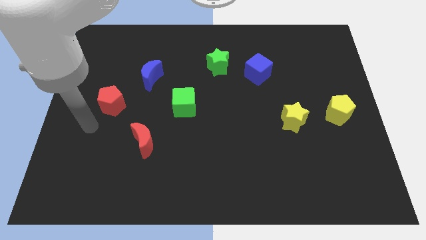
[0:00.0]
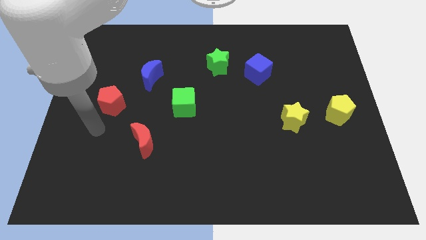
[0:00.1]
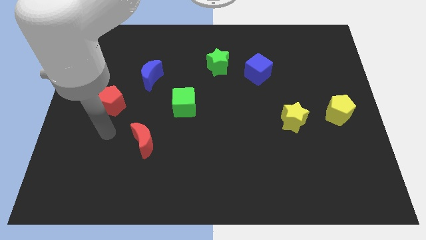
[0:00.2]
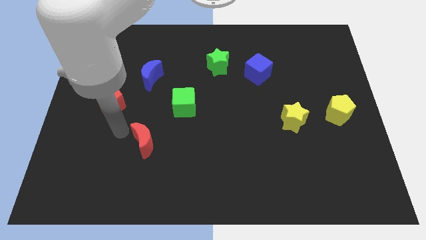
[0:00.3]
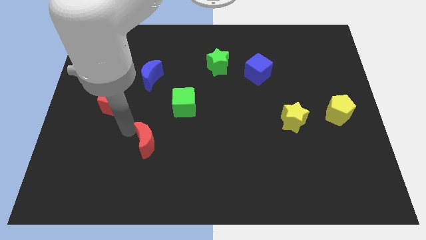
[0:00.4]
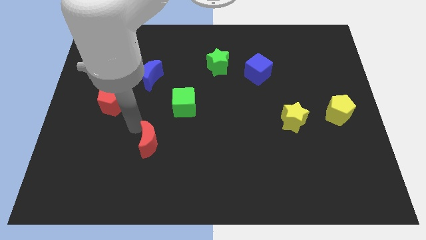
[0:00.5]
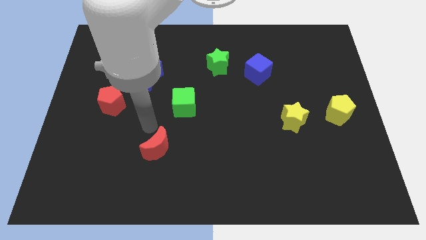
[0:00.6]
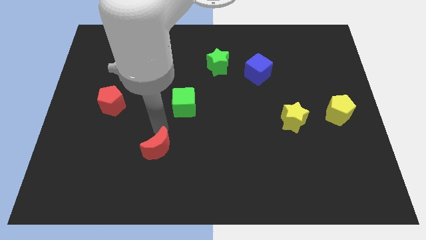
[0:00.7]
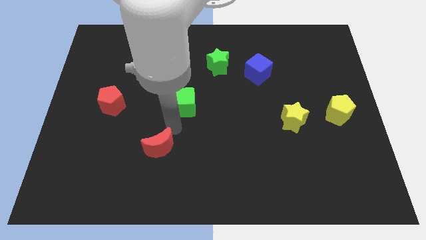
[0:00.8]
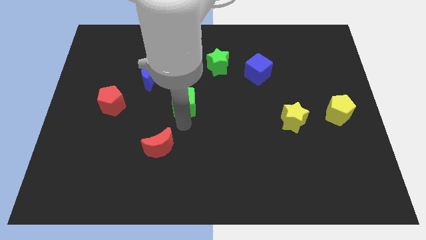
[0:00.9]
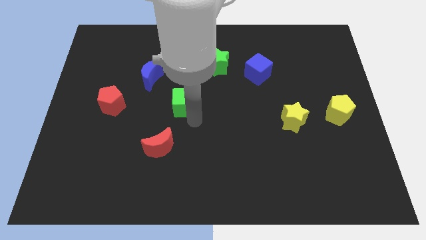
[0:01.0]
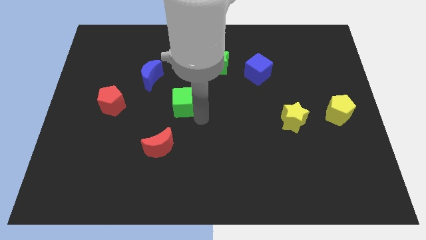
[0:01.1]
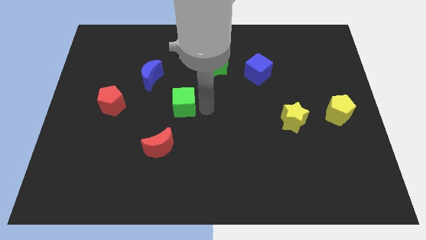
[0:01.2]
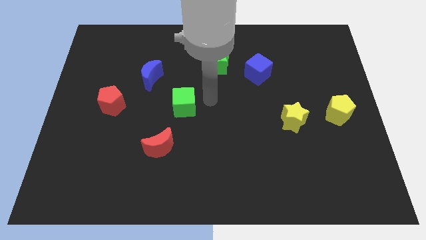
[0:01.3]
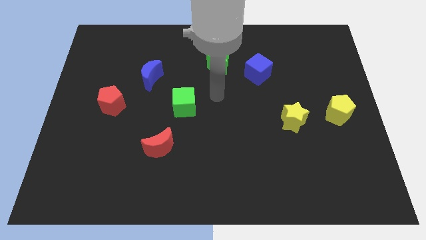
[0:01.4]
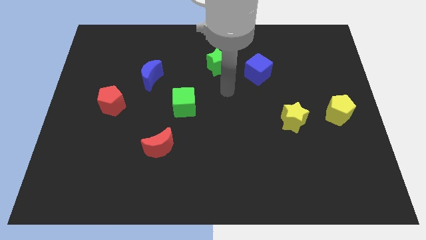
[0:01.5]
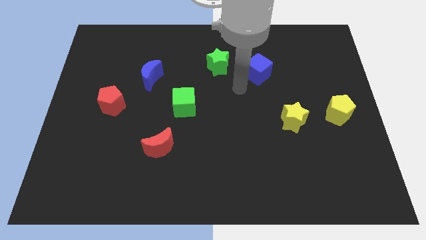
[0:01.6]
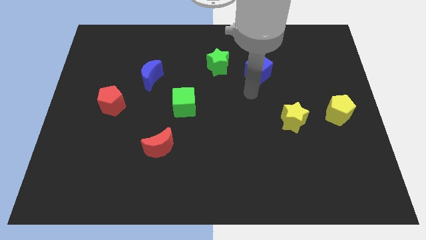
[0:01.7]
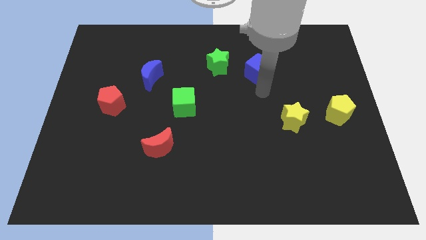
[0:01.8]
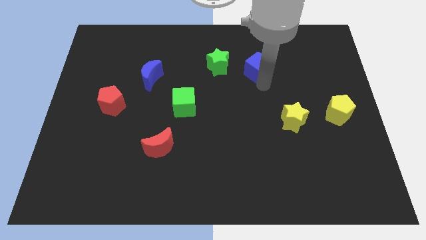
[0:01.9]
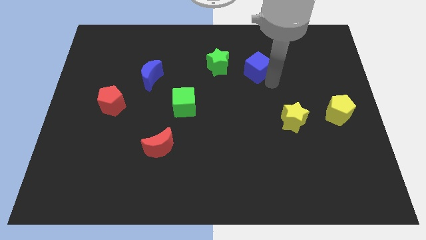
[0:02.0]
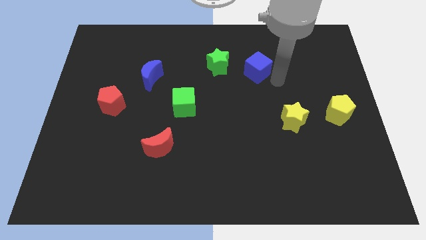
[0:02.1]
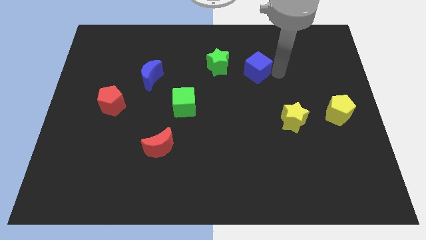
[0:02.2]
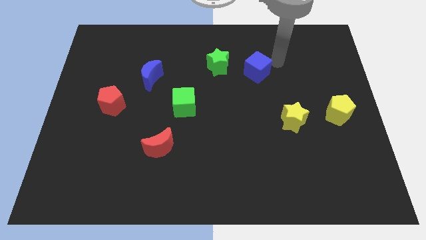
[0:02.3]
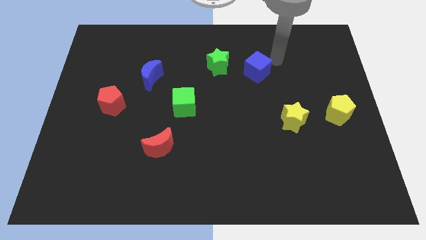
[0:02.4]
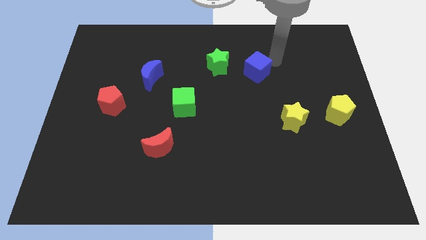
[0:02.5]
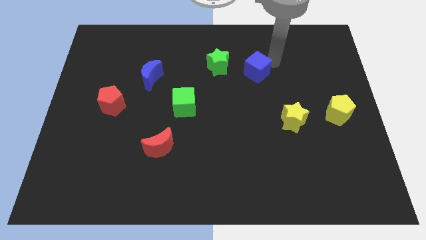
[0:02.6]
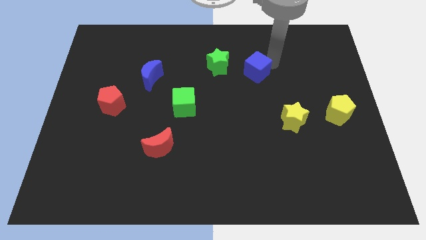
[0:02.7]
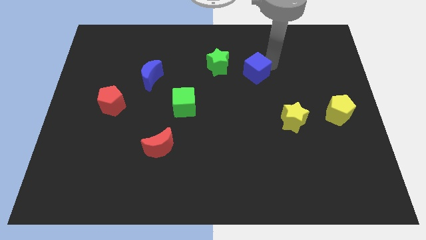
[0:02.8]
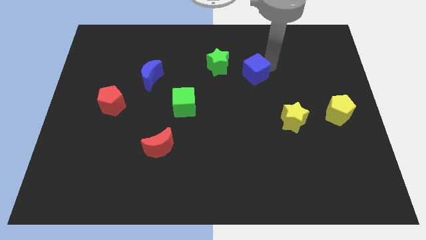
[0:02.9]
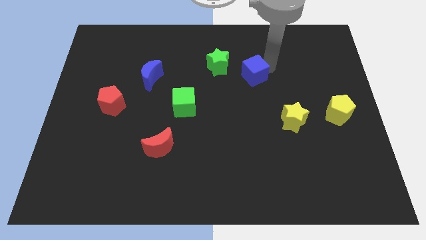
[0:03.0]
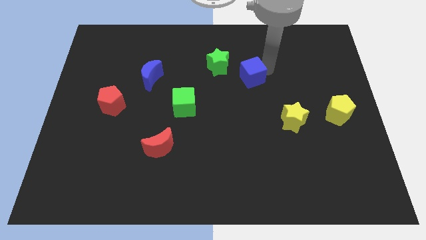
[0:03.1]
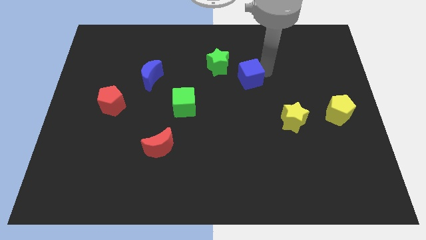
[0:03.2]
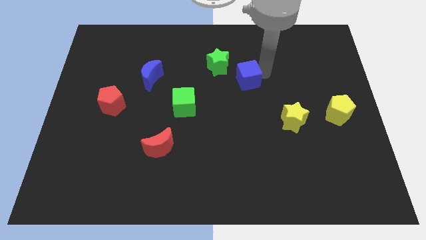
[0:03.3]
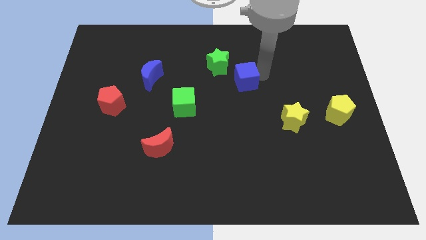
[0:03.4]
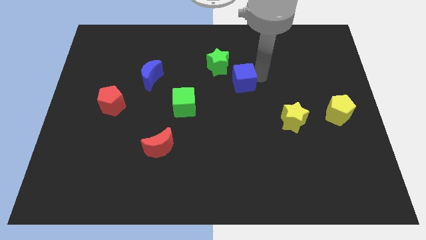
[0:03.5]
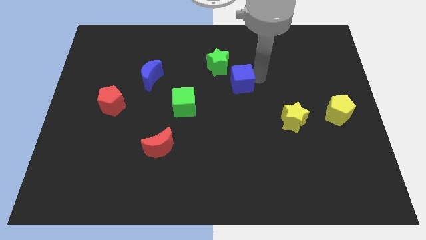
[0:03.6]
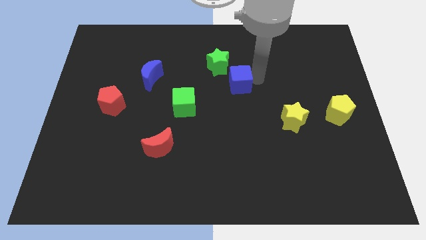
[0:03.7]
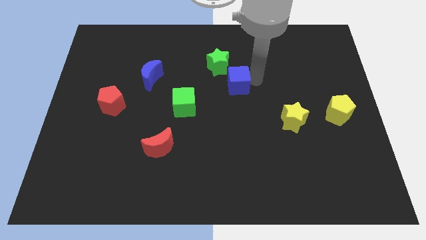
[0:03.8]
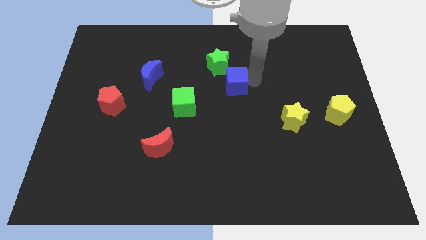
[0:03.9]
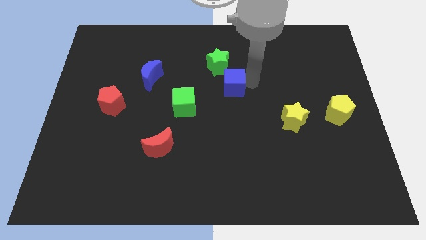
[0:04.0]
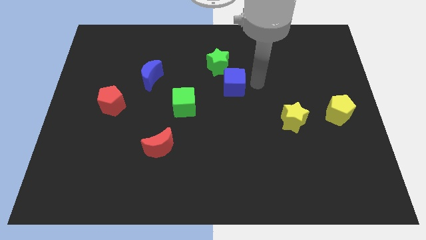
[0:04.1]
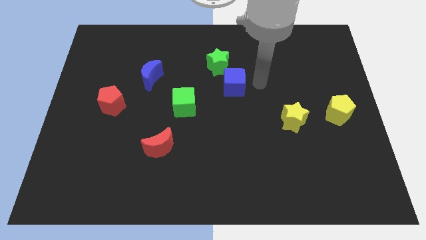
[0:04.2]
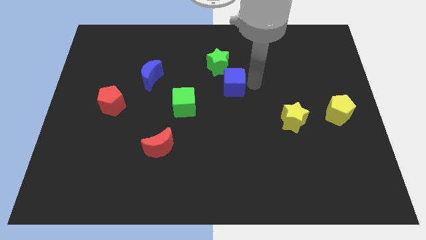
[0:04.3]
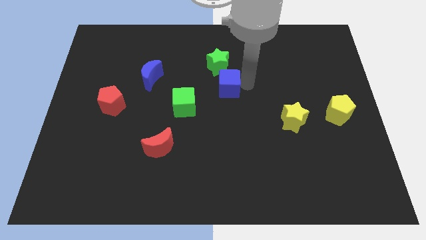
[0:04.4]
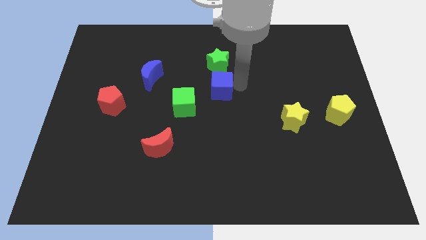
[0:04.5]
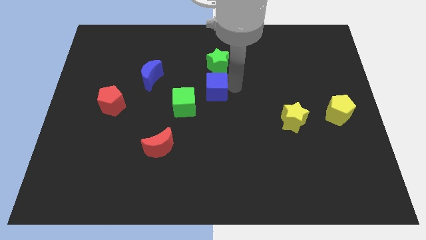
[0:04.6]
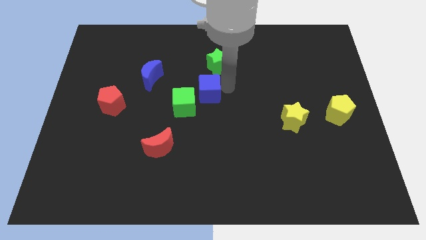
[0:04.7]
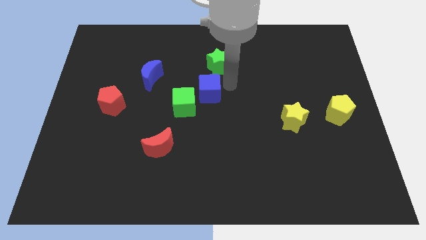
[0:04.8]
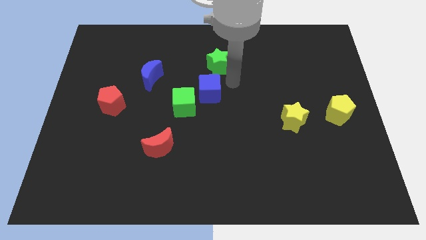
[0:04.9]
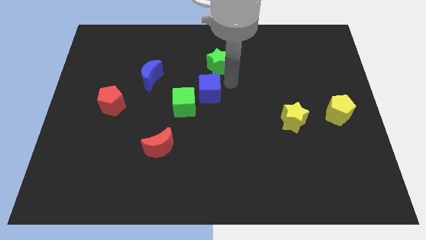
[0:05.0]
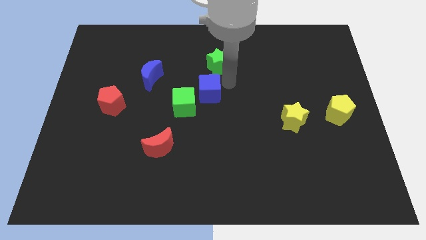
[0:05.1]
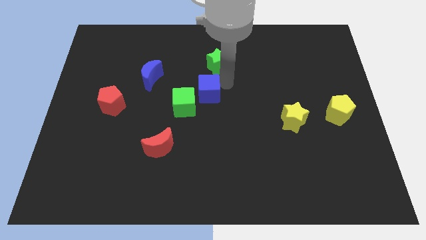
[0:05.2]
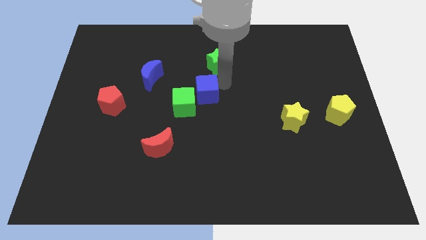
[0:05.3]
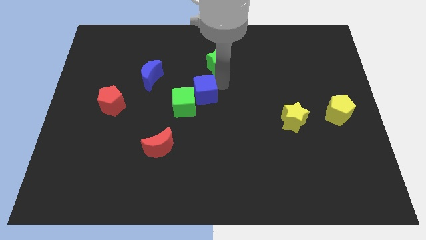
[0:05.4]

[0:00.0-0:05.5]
slide the blue cube close to the green cube

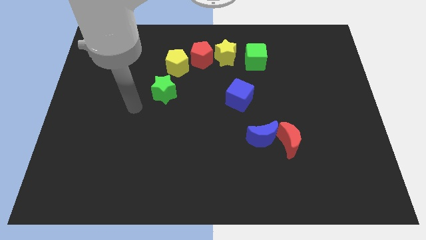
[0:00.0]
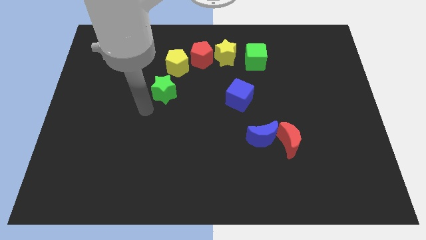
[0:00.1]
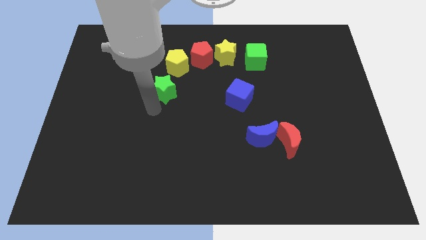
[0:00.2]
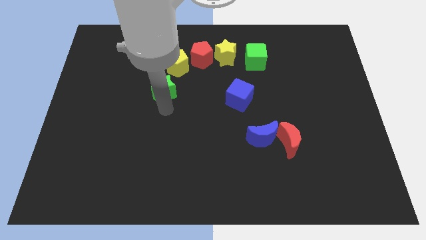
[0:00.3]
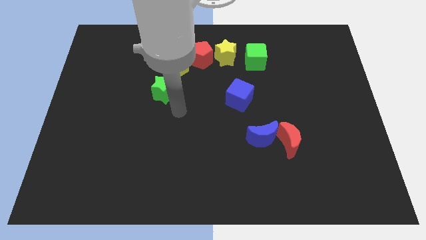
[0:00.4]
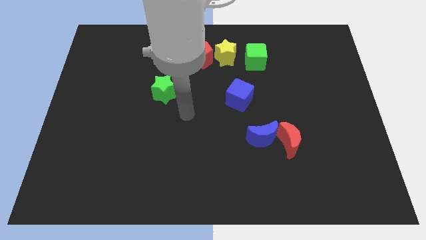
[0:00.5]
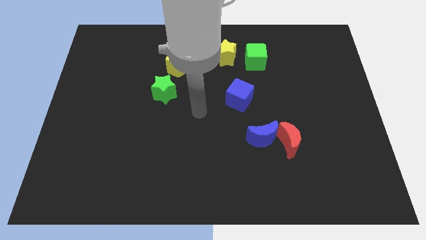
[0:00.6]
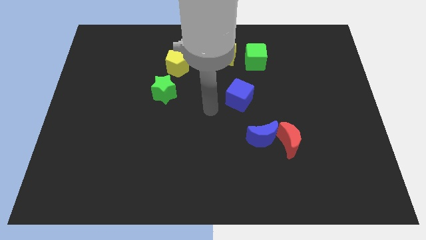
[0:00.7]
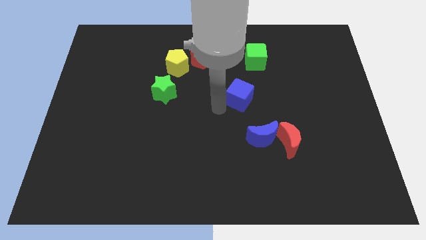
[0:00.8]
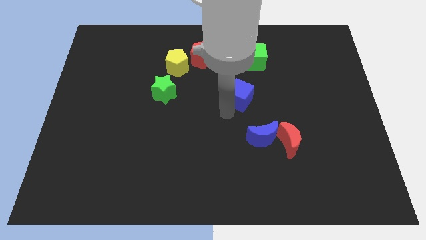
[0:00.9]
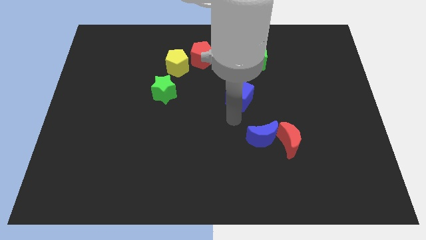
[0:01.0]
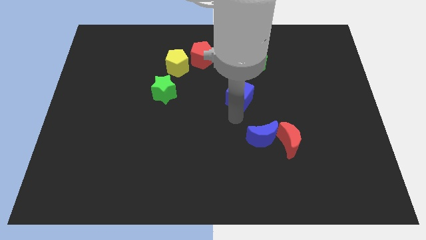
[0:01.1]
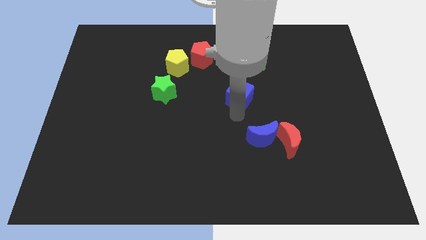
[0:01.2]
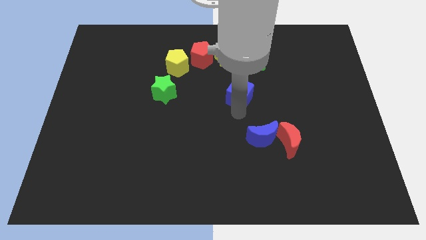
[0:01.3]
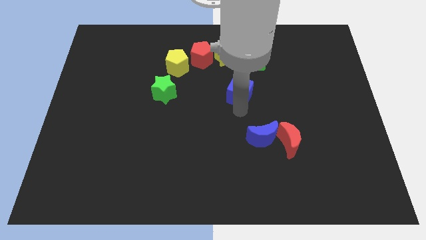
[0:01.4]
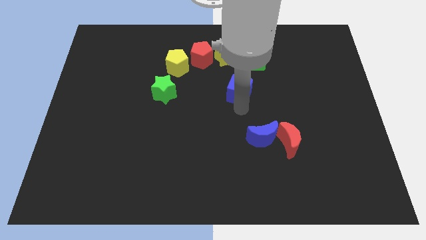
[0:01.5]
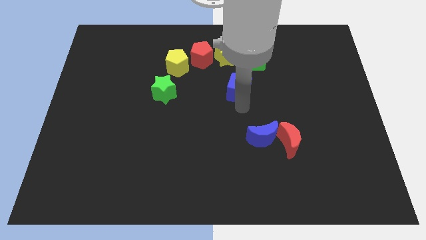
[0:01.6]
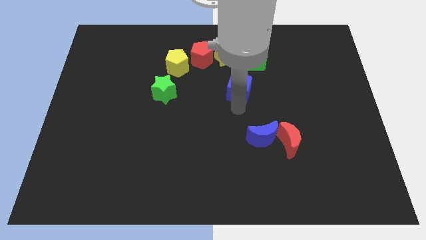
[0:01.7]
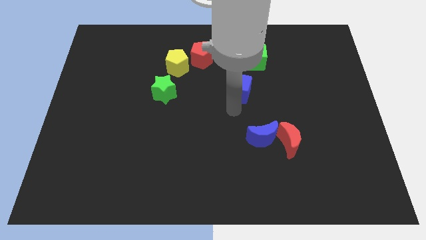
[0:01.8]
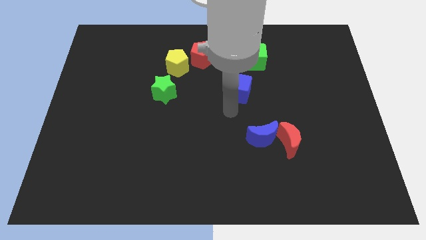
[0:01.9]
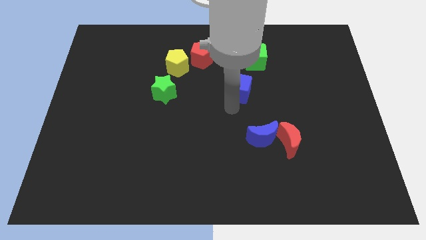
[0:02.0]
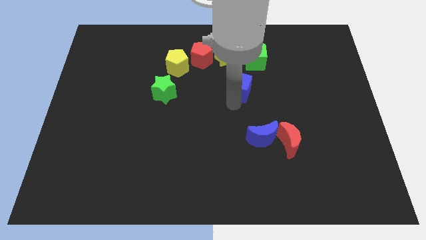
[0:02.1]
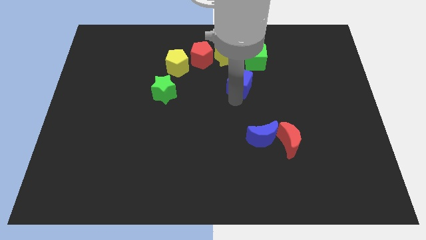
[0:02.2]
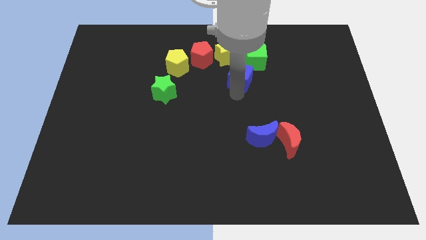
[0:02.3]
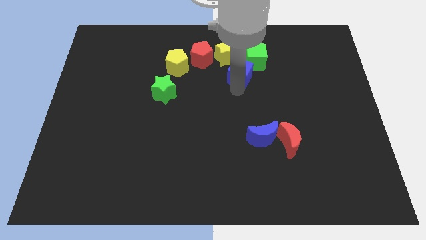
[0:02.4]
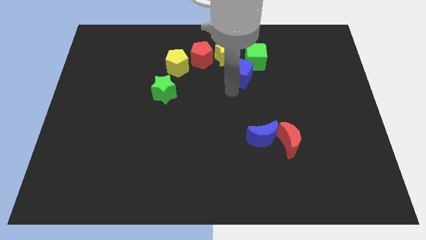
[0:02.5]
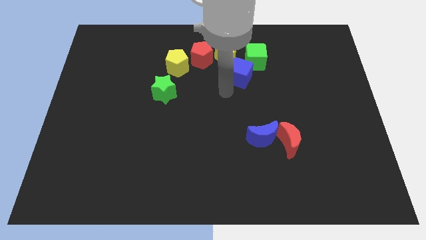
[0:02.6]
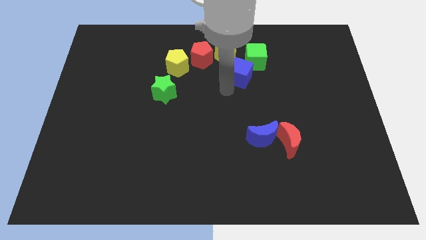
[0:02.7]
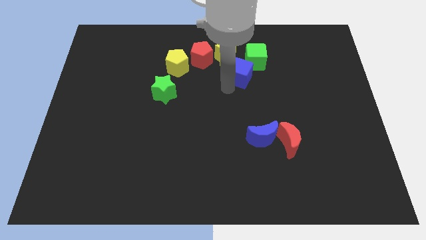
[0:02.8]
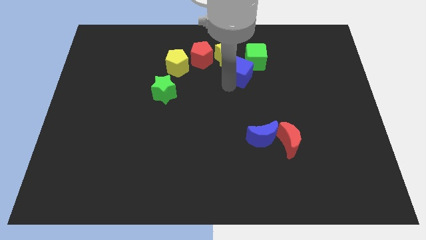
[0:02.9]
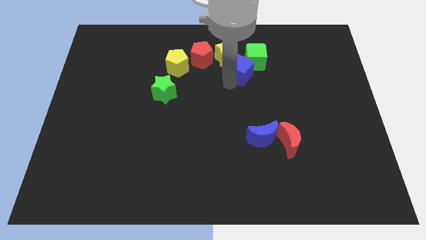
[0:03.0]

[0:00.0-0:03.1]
slide the blue cube to the green cube
